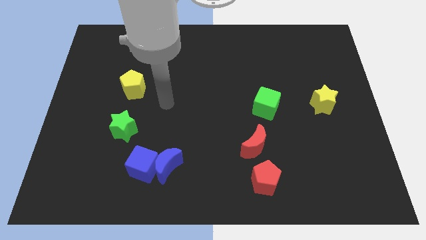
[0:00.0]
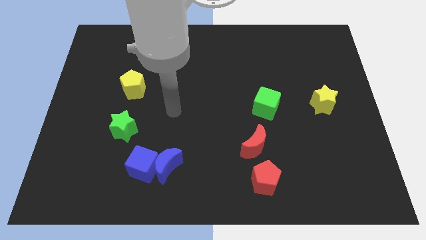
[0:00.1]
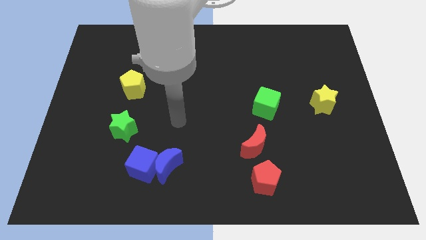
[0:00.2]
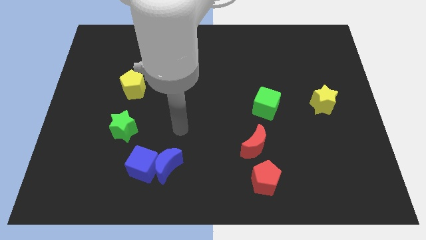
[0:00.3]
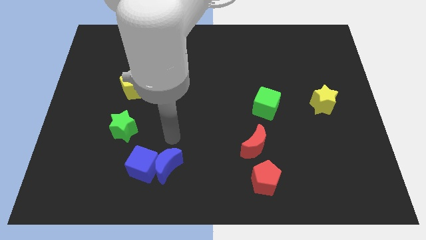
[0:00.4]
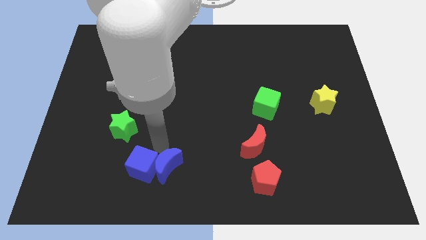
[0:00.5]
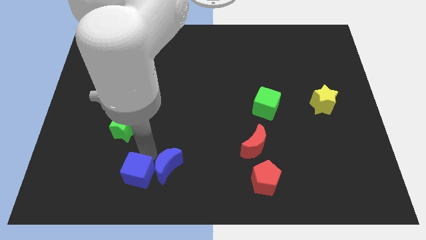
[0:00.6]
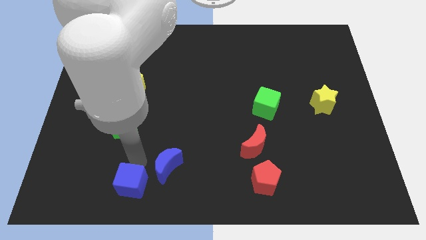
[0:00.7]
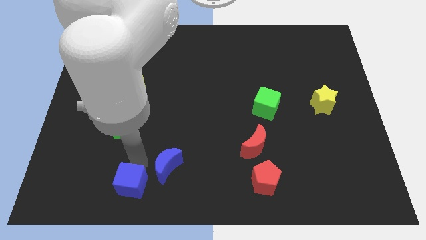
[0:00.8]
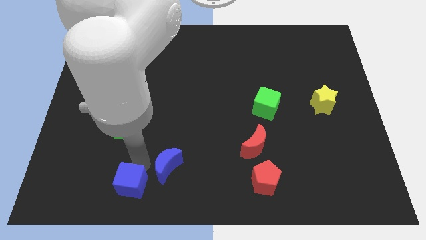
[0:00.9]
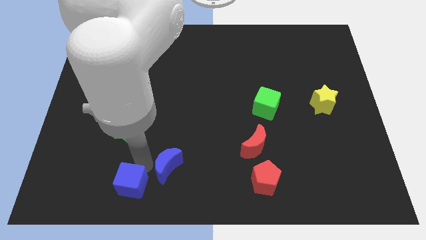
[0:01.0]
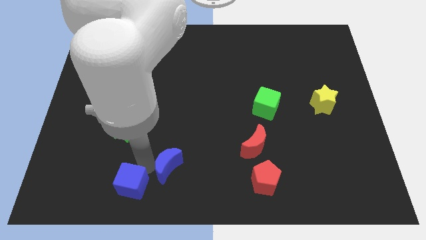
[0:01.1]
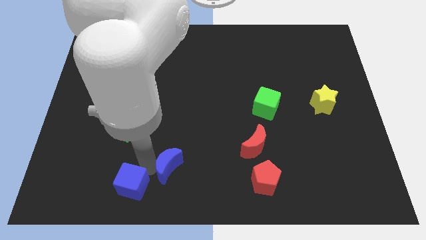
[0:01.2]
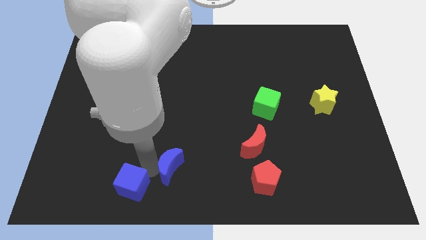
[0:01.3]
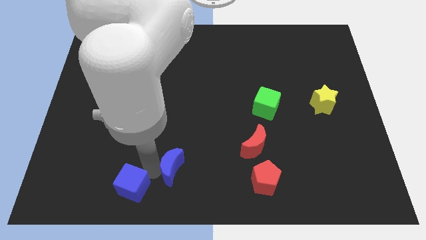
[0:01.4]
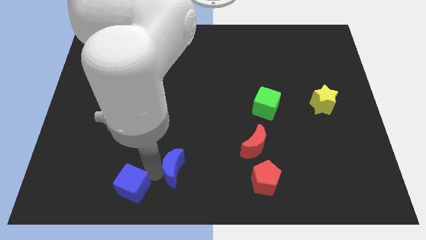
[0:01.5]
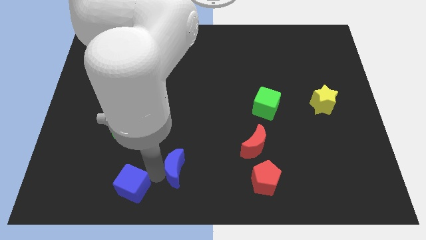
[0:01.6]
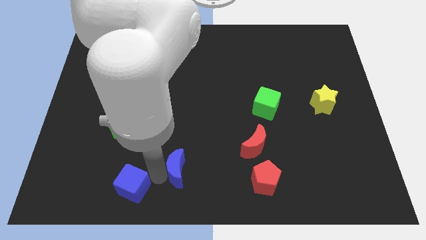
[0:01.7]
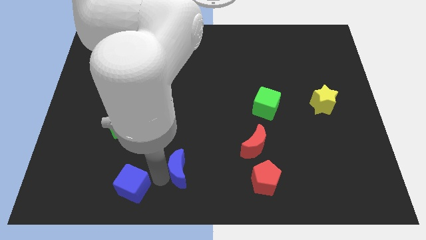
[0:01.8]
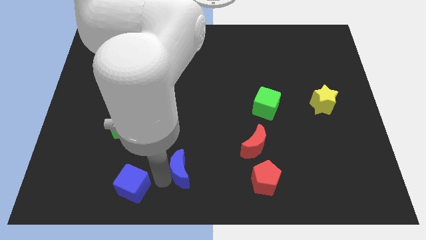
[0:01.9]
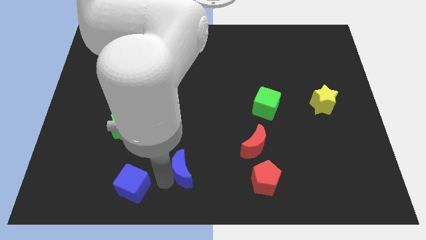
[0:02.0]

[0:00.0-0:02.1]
separate the blue moon from the blue cube

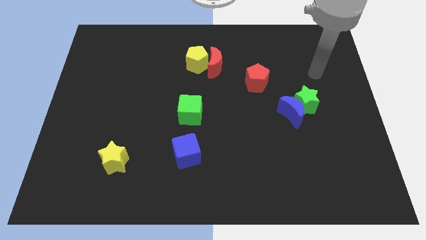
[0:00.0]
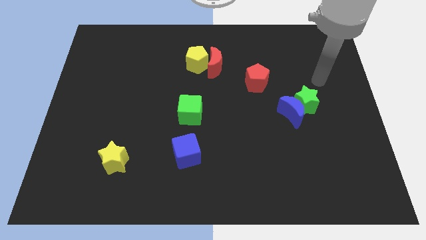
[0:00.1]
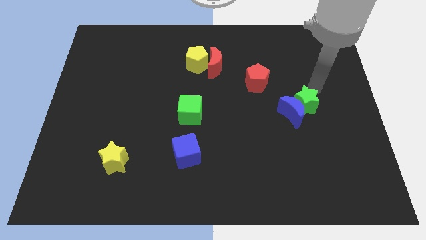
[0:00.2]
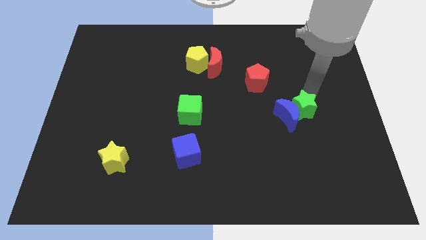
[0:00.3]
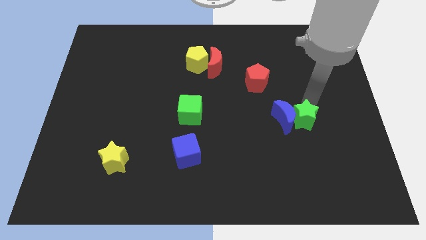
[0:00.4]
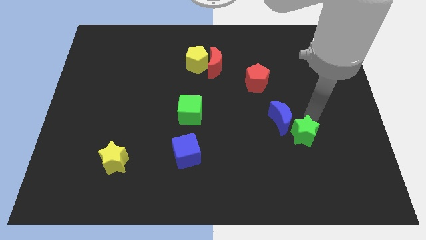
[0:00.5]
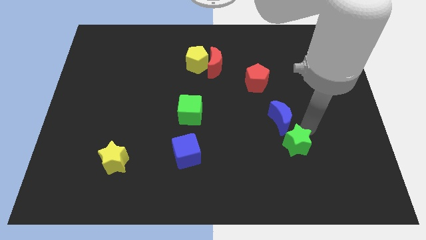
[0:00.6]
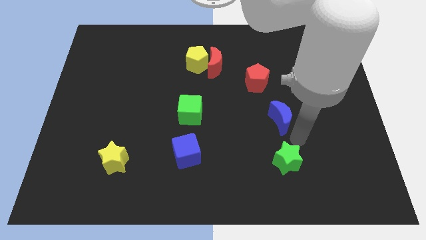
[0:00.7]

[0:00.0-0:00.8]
pull the blue moon apart from the green star

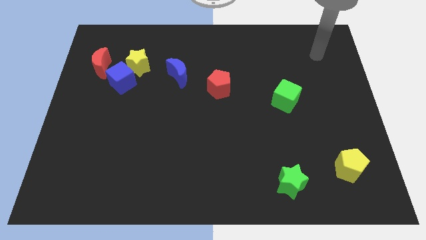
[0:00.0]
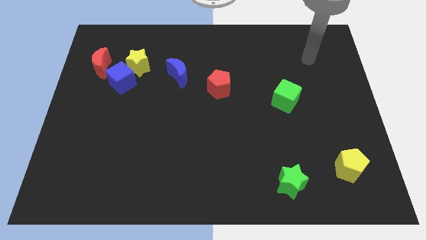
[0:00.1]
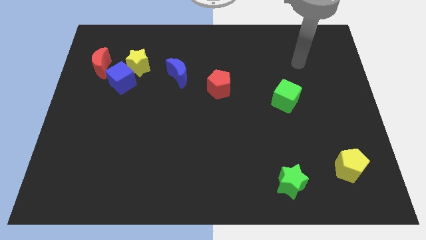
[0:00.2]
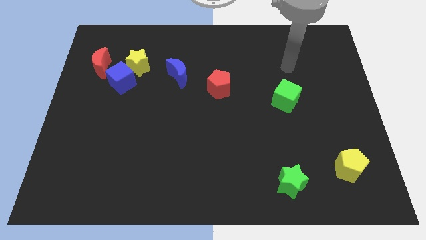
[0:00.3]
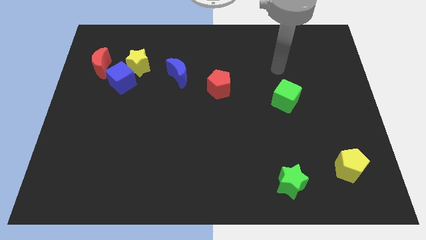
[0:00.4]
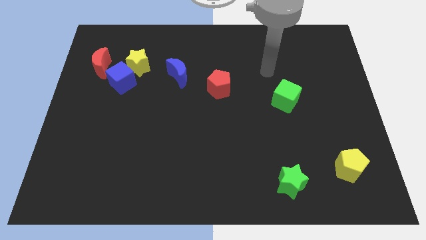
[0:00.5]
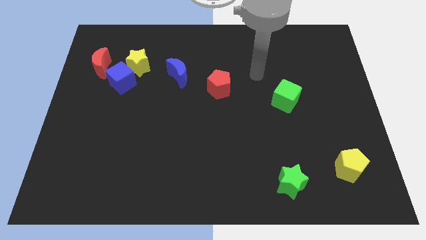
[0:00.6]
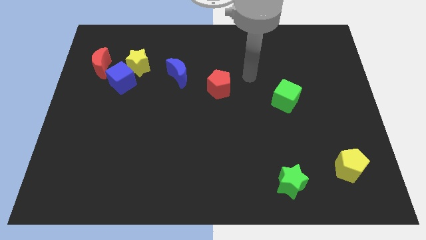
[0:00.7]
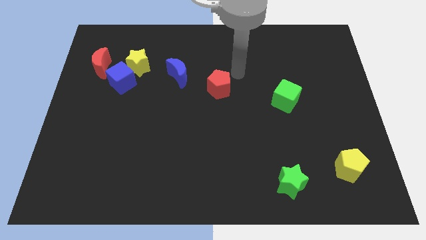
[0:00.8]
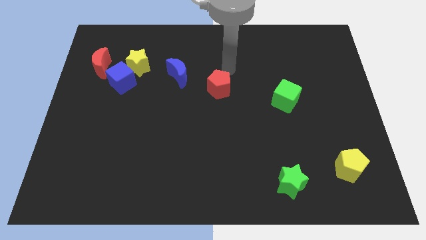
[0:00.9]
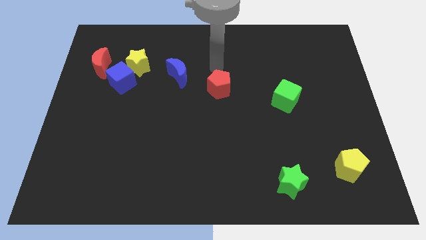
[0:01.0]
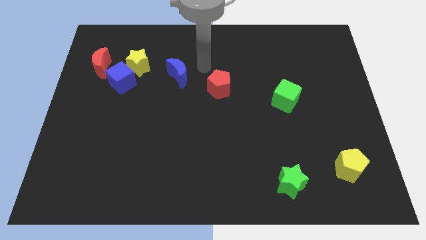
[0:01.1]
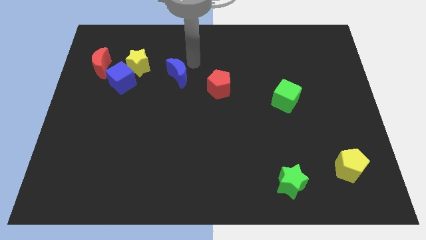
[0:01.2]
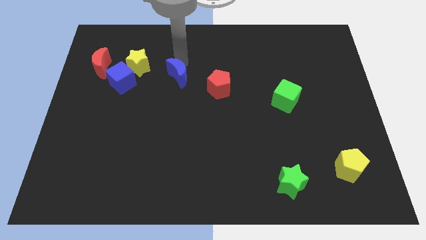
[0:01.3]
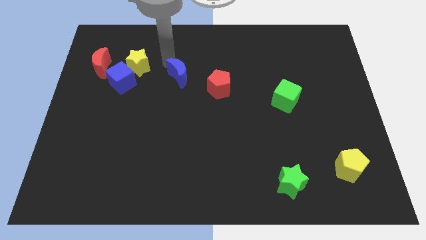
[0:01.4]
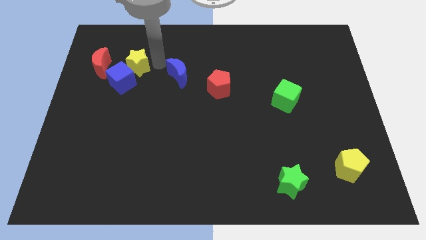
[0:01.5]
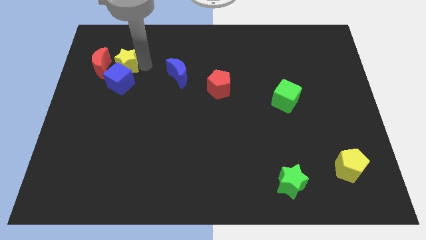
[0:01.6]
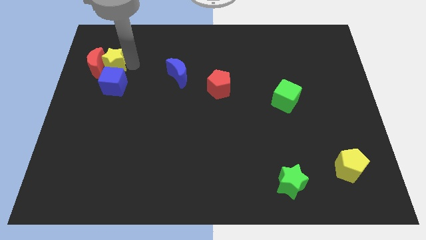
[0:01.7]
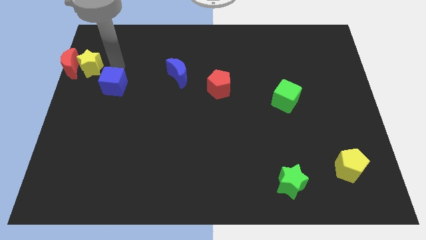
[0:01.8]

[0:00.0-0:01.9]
pull the blue cube apart from the yellow star and red moon

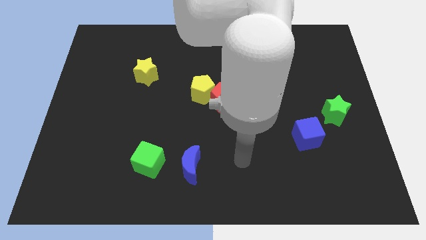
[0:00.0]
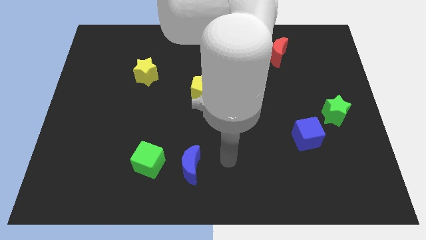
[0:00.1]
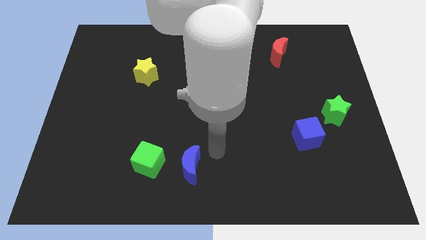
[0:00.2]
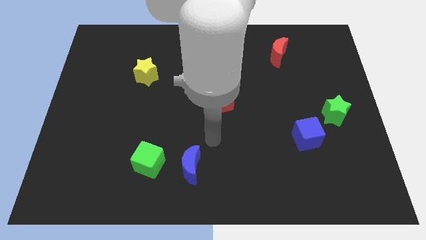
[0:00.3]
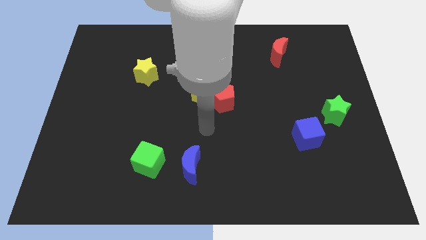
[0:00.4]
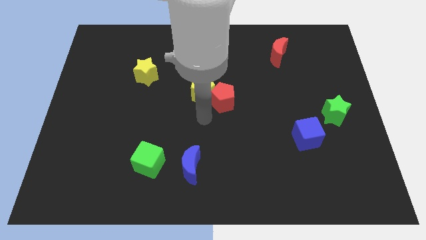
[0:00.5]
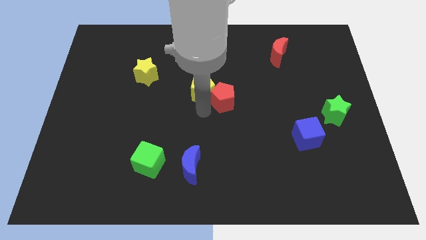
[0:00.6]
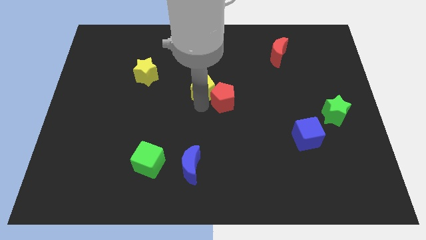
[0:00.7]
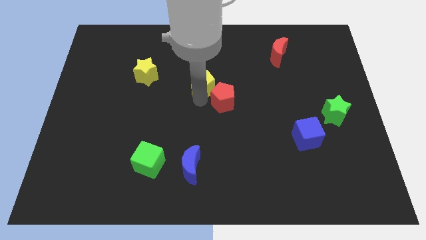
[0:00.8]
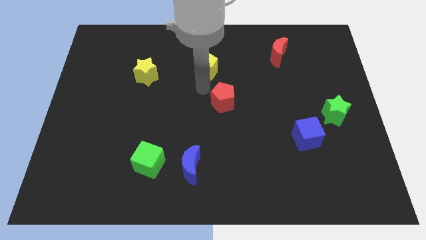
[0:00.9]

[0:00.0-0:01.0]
separate the red pentagon from the yellow pentagon

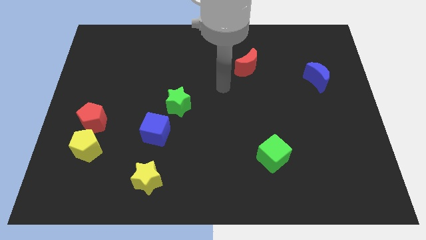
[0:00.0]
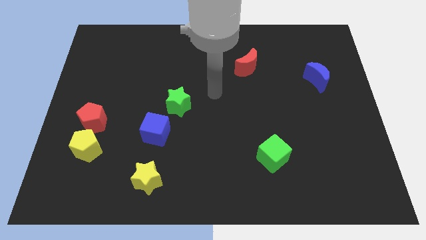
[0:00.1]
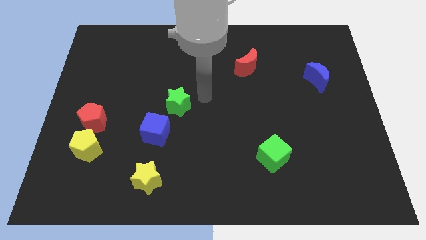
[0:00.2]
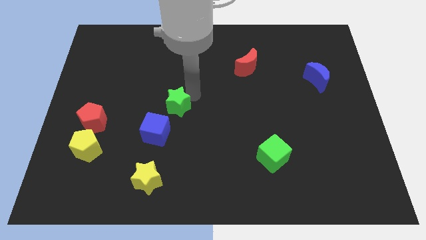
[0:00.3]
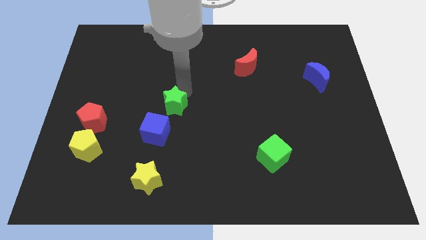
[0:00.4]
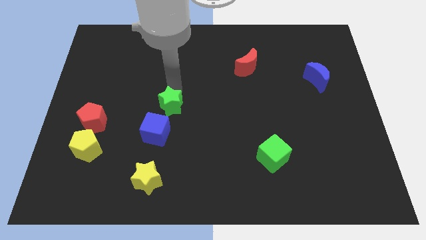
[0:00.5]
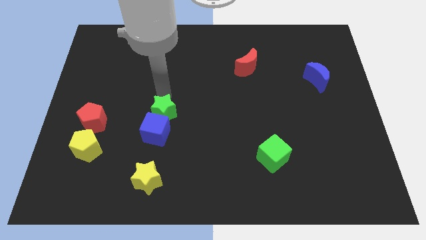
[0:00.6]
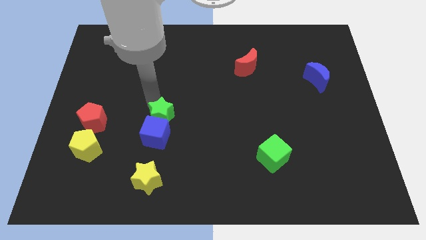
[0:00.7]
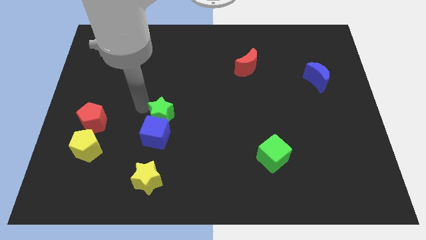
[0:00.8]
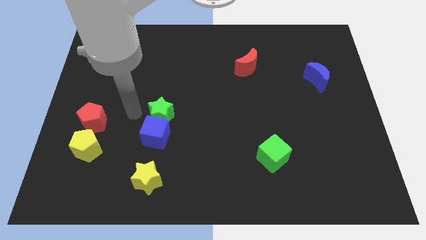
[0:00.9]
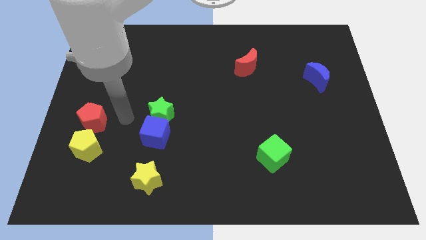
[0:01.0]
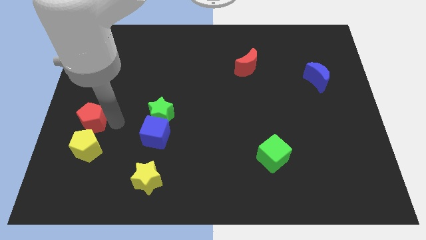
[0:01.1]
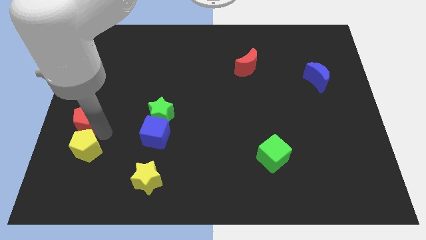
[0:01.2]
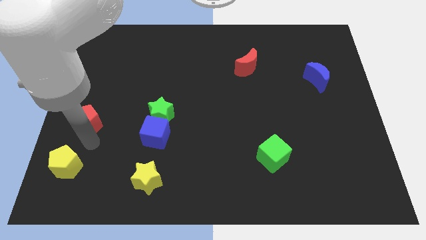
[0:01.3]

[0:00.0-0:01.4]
move the red pentagon away from the yellow pentagon

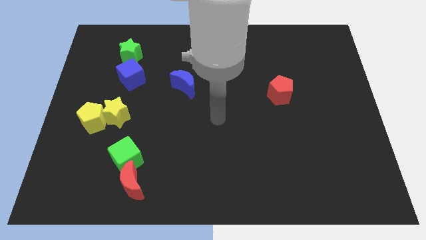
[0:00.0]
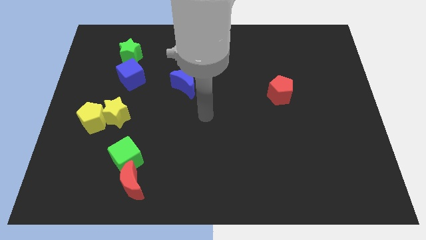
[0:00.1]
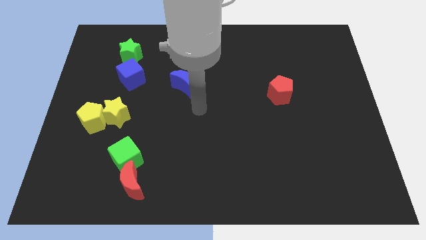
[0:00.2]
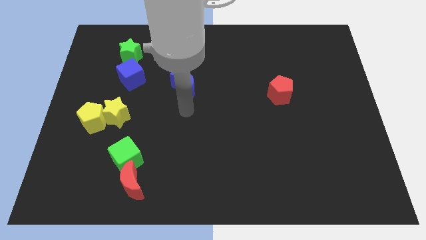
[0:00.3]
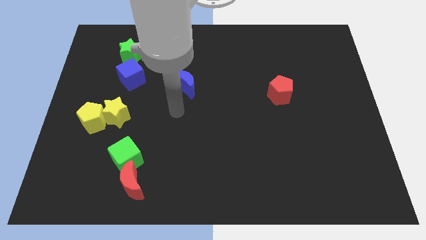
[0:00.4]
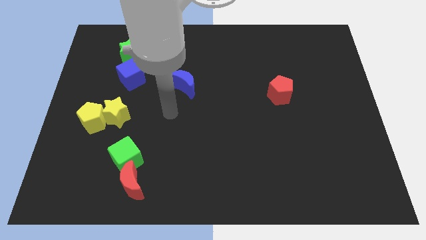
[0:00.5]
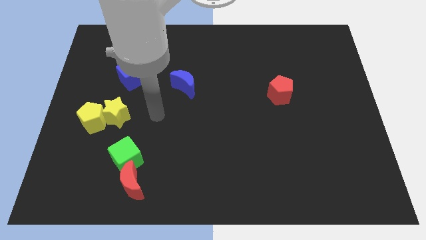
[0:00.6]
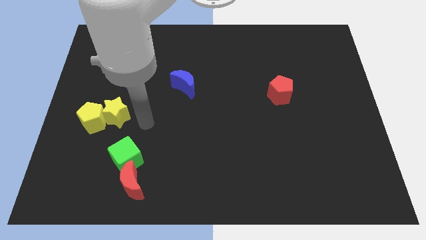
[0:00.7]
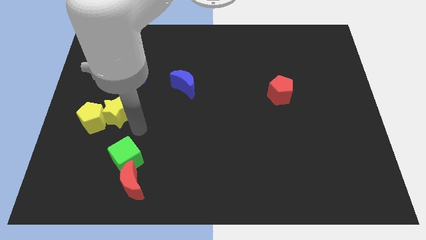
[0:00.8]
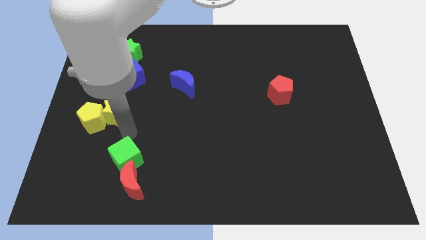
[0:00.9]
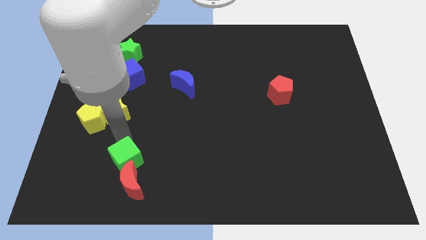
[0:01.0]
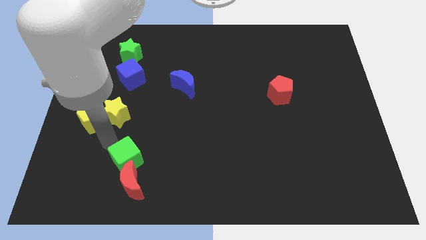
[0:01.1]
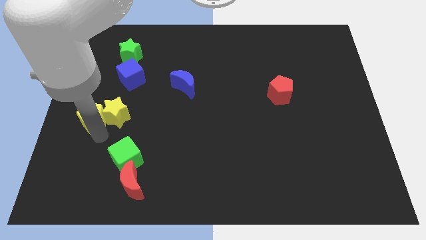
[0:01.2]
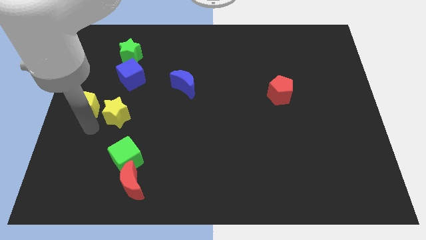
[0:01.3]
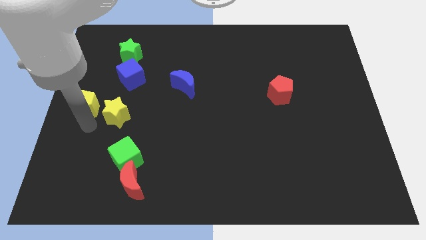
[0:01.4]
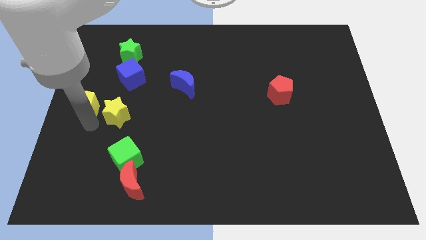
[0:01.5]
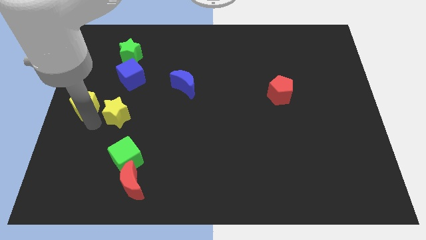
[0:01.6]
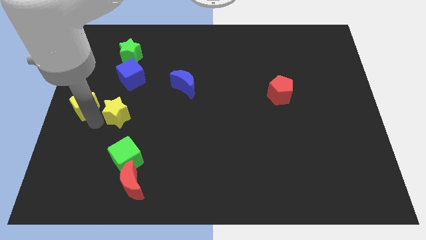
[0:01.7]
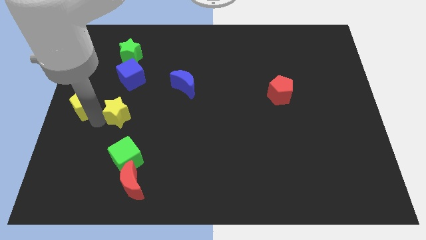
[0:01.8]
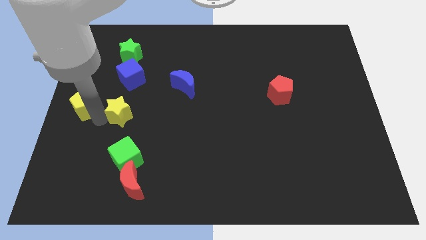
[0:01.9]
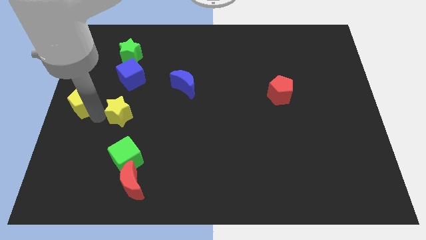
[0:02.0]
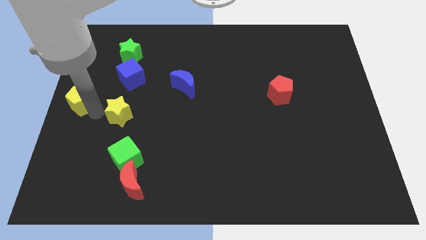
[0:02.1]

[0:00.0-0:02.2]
separate the yellow star from the yellow pentagon
